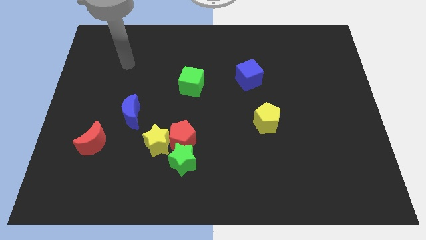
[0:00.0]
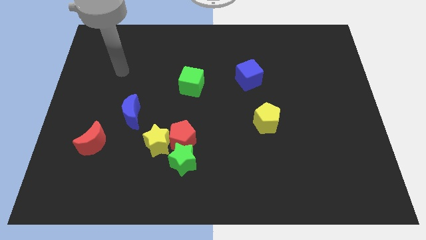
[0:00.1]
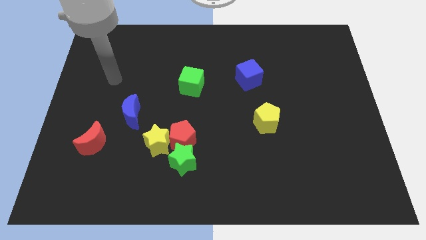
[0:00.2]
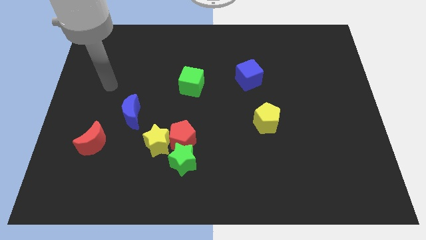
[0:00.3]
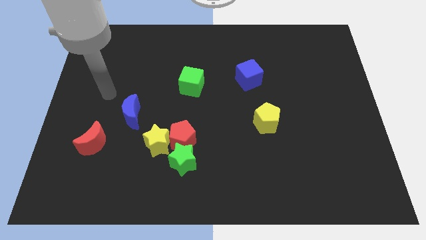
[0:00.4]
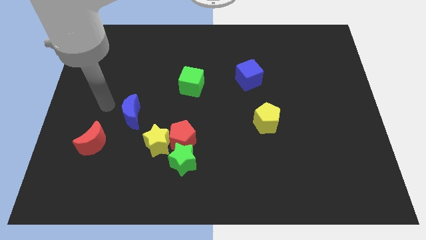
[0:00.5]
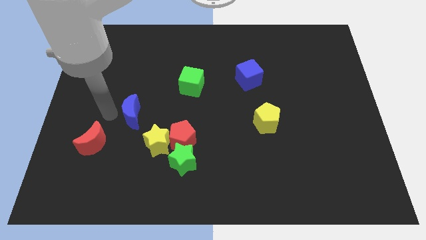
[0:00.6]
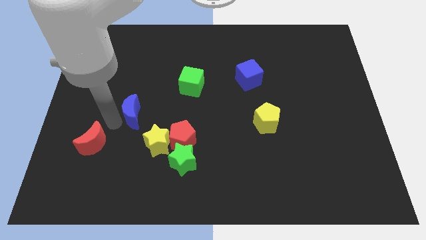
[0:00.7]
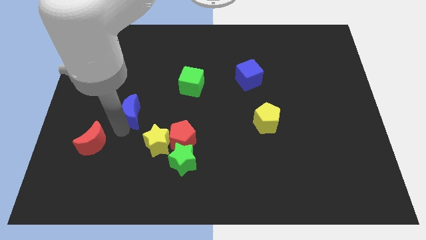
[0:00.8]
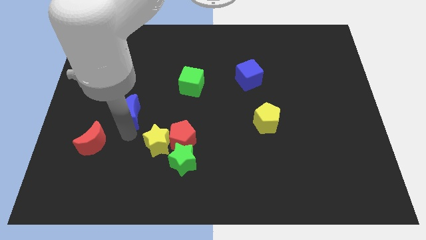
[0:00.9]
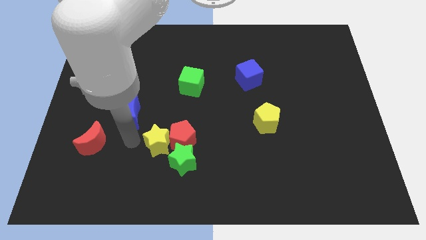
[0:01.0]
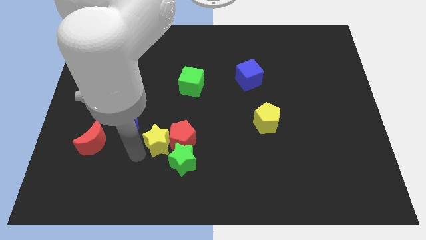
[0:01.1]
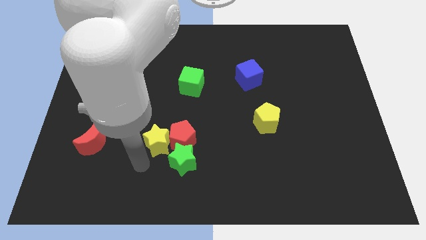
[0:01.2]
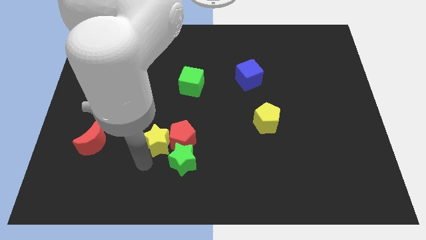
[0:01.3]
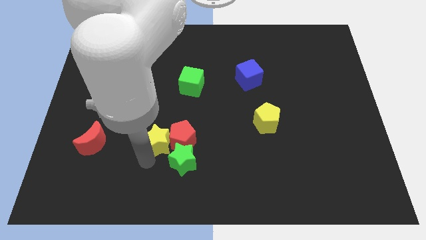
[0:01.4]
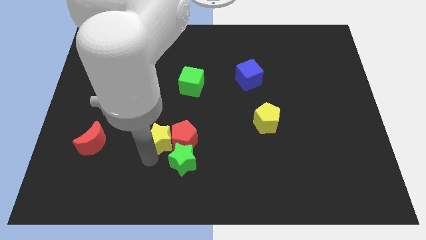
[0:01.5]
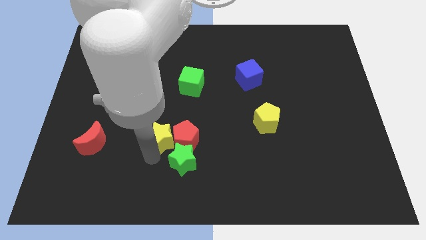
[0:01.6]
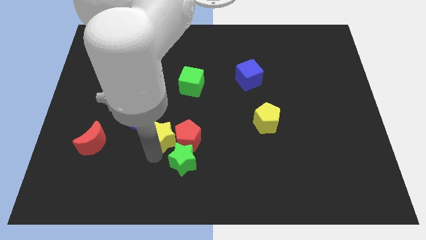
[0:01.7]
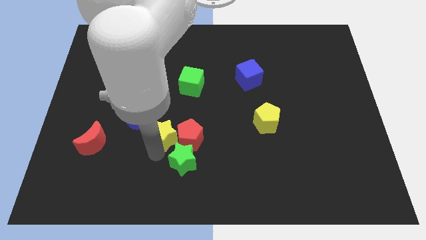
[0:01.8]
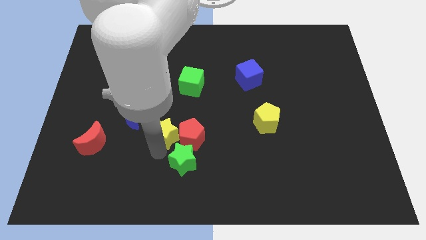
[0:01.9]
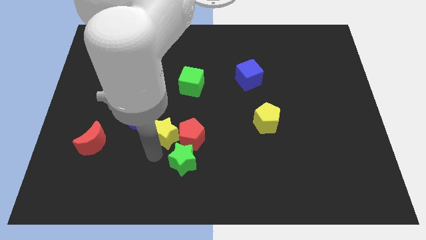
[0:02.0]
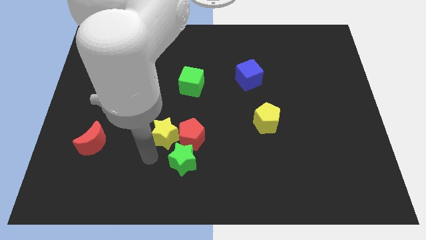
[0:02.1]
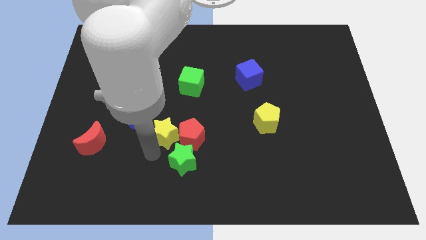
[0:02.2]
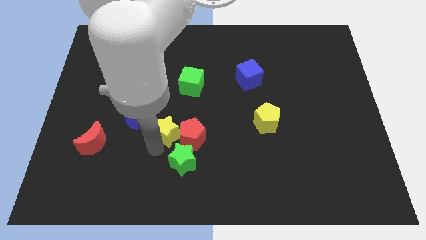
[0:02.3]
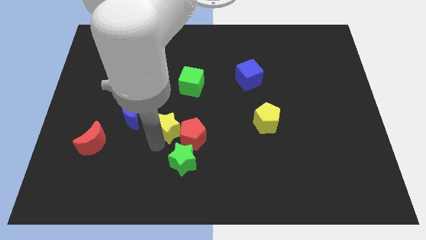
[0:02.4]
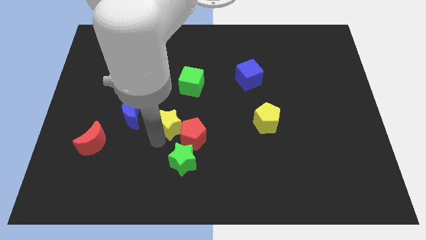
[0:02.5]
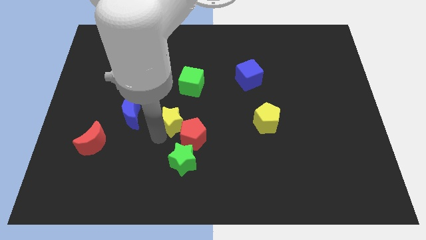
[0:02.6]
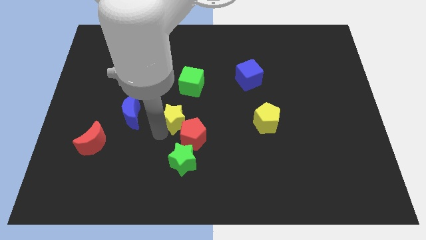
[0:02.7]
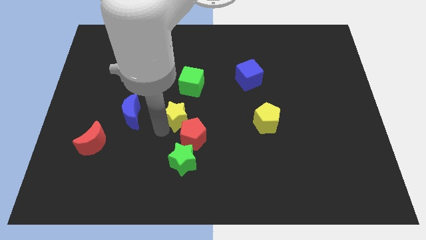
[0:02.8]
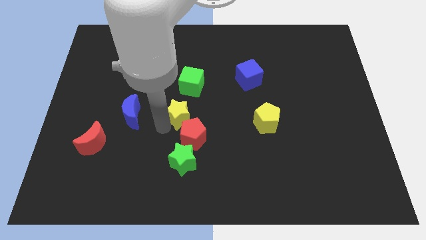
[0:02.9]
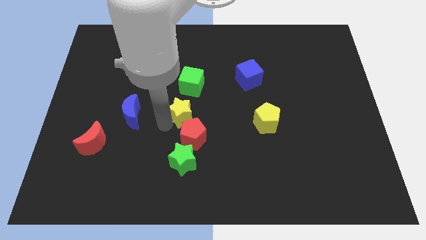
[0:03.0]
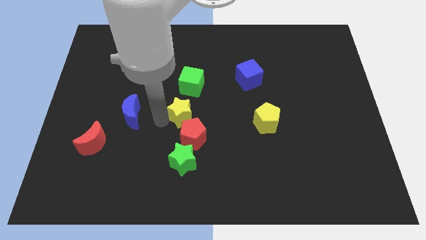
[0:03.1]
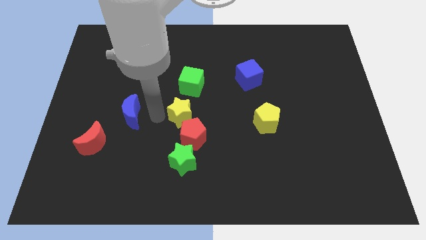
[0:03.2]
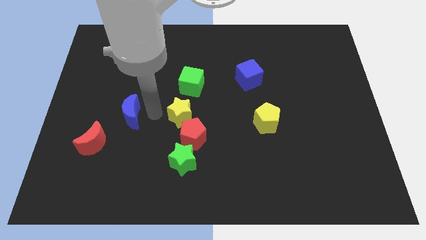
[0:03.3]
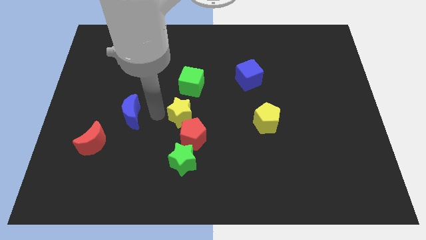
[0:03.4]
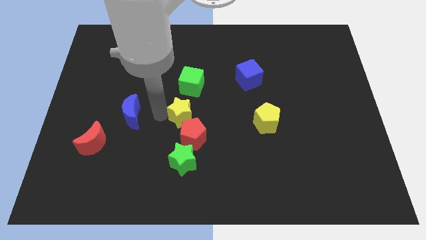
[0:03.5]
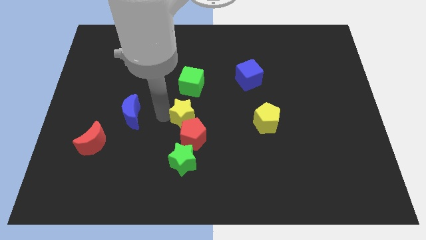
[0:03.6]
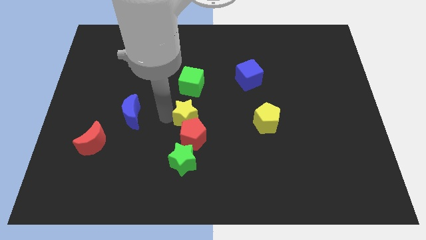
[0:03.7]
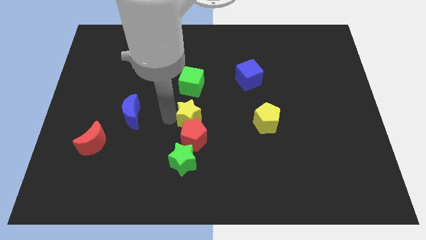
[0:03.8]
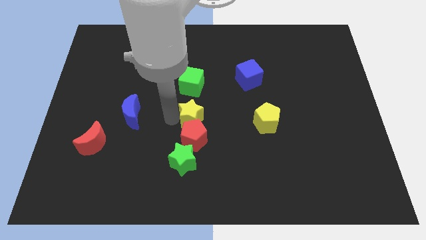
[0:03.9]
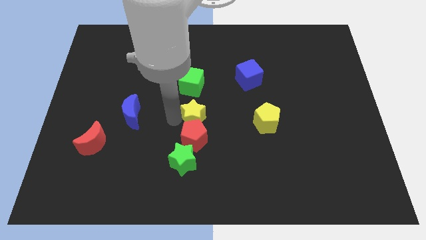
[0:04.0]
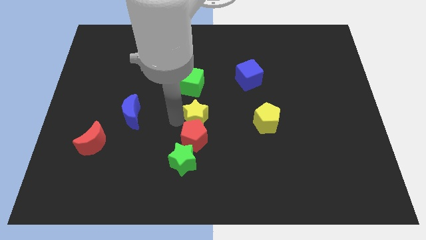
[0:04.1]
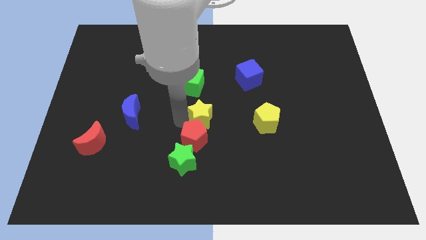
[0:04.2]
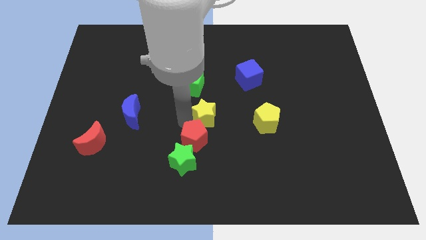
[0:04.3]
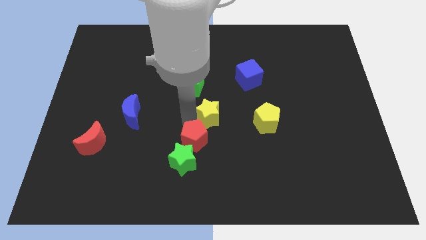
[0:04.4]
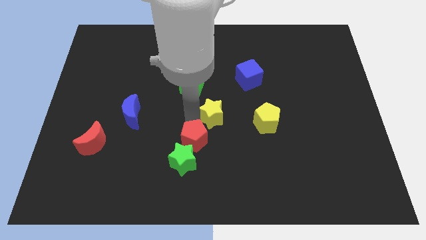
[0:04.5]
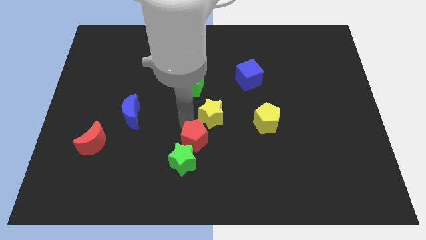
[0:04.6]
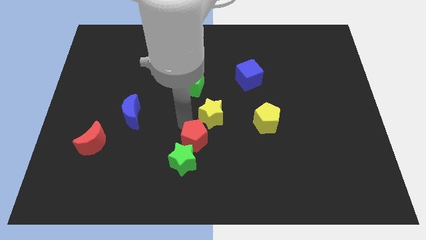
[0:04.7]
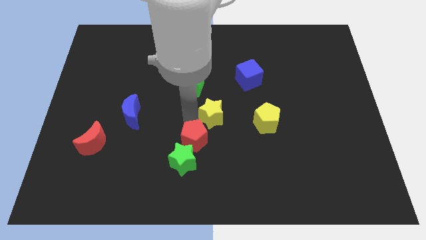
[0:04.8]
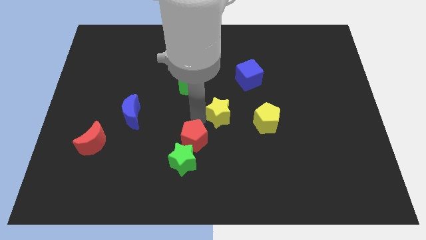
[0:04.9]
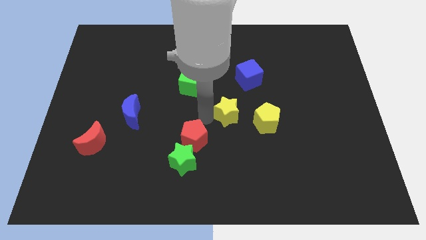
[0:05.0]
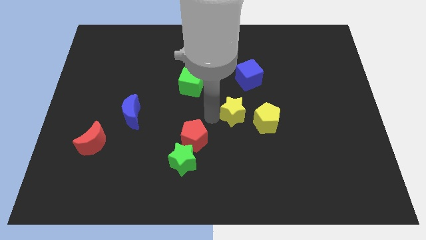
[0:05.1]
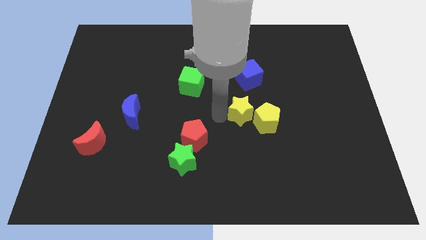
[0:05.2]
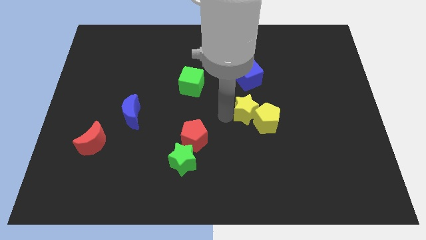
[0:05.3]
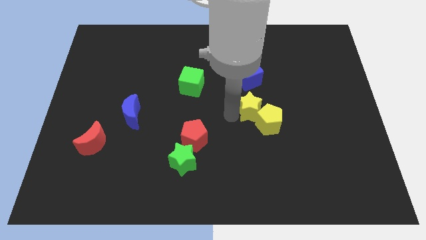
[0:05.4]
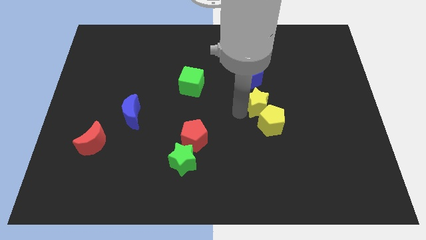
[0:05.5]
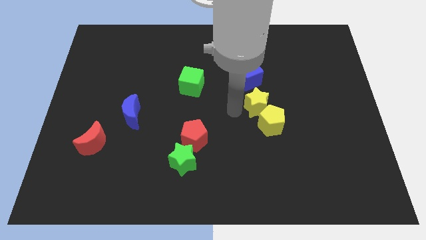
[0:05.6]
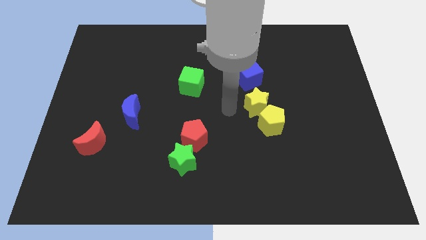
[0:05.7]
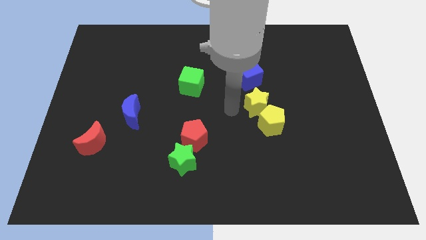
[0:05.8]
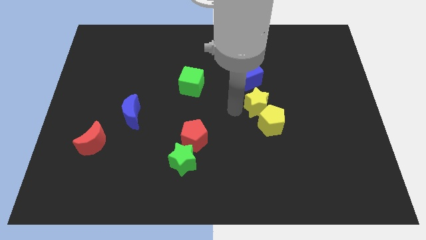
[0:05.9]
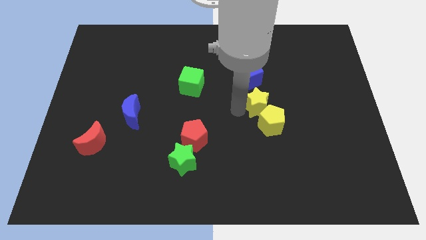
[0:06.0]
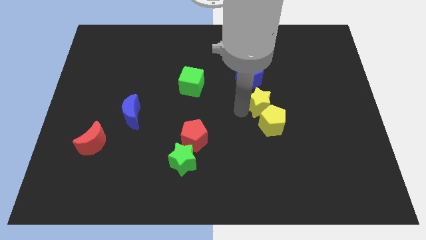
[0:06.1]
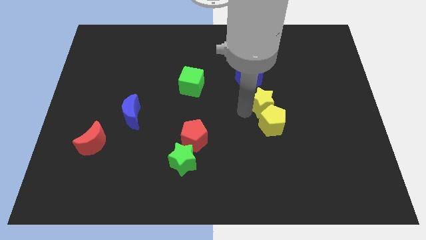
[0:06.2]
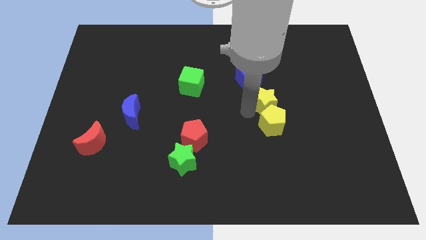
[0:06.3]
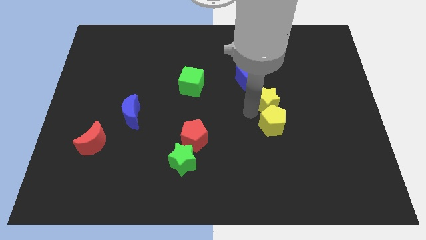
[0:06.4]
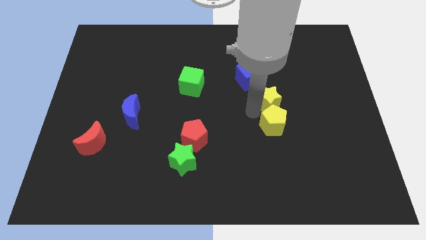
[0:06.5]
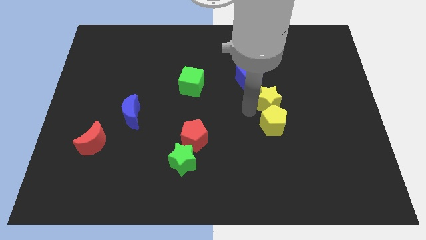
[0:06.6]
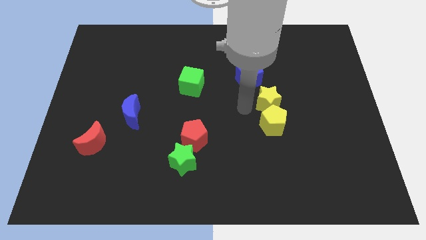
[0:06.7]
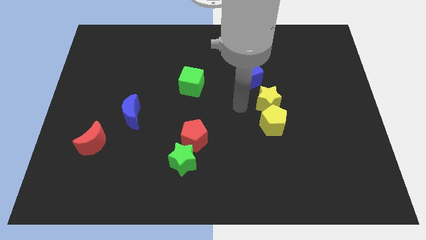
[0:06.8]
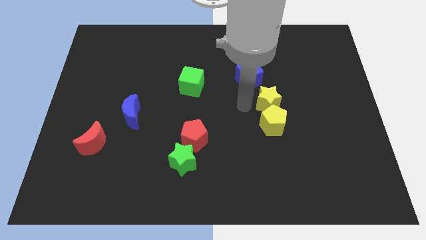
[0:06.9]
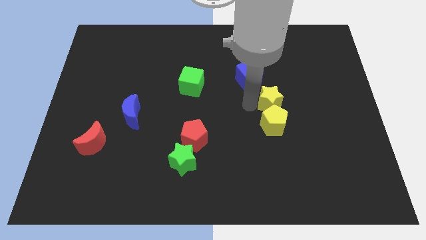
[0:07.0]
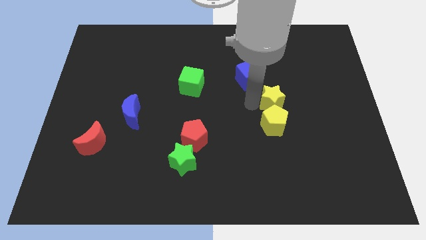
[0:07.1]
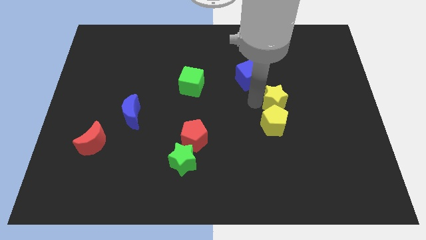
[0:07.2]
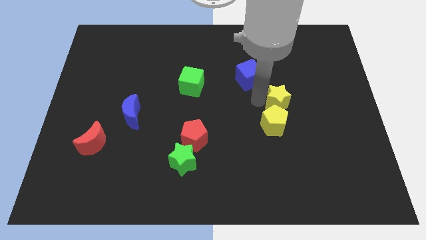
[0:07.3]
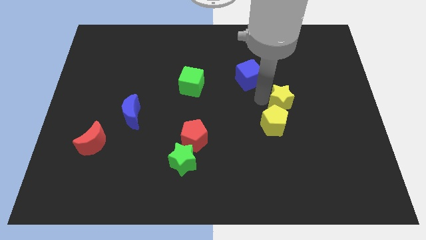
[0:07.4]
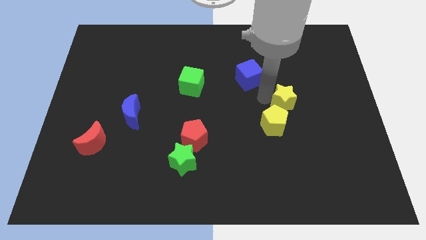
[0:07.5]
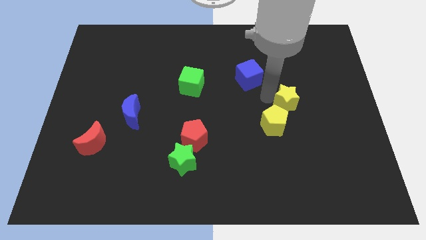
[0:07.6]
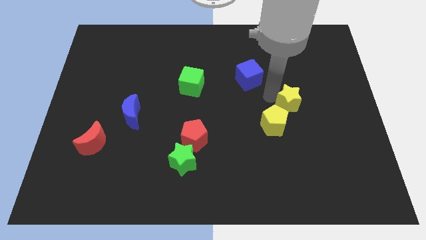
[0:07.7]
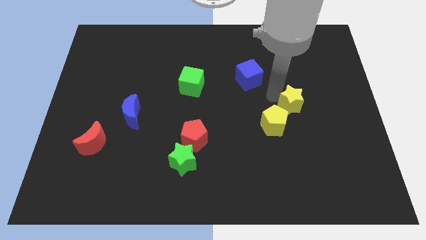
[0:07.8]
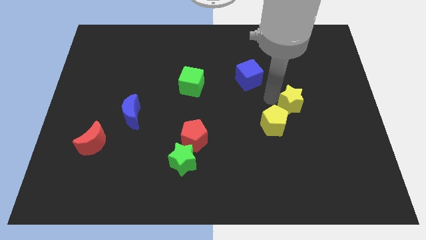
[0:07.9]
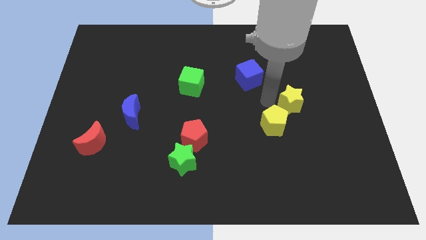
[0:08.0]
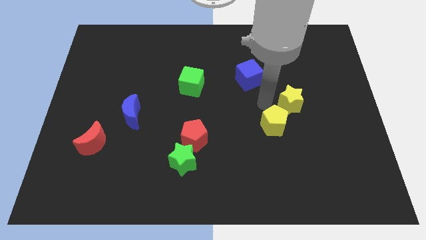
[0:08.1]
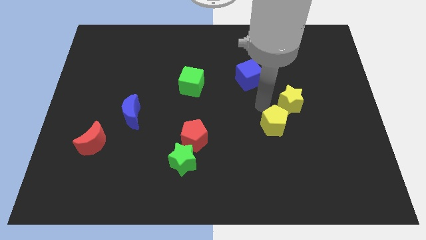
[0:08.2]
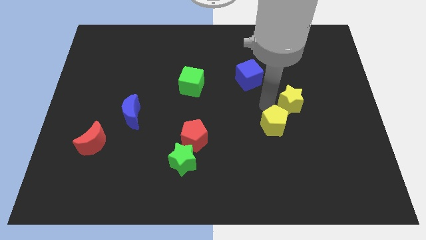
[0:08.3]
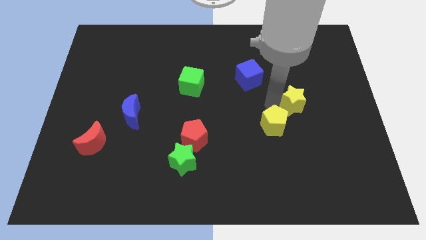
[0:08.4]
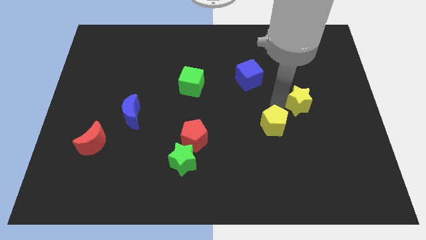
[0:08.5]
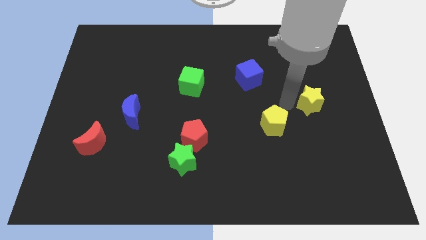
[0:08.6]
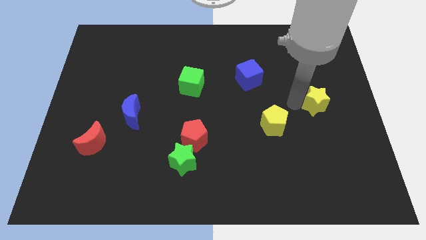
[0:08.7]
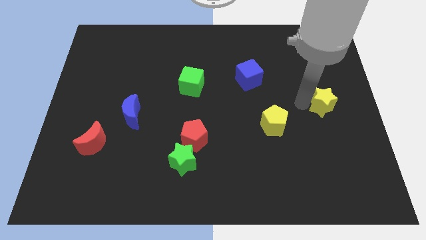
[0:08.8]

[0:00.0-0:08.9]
put the yellow star to the right side of the board
